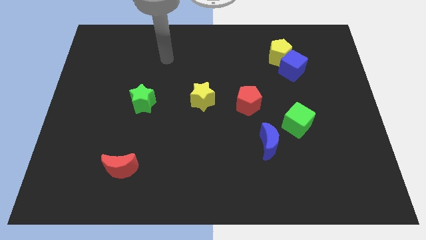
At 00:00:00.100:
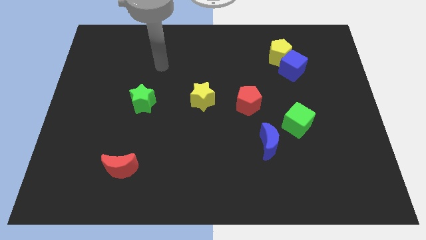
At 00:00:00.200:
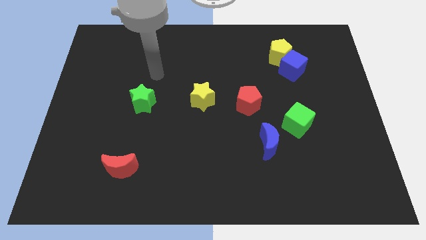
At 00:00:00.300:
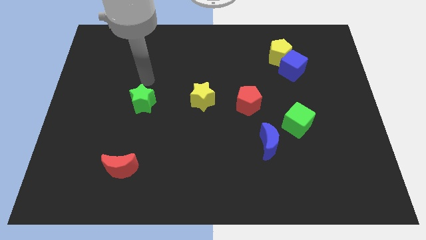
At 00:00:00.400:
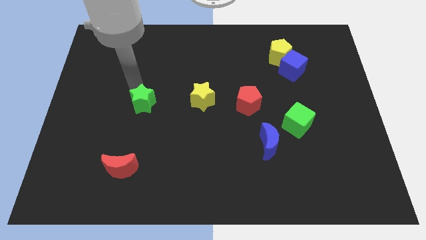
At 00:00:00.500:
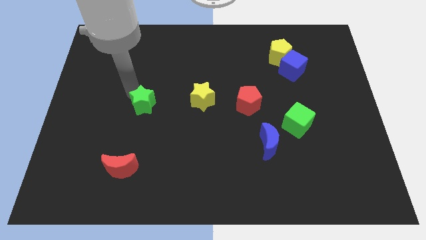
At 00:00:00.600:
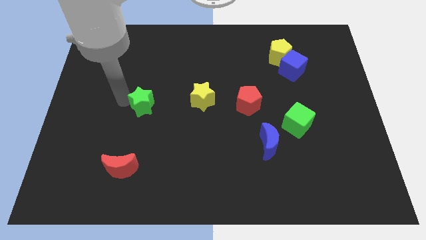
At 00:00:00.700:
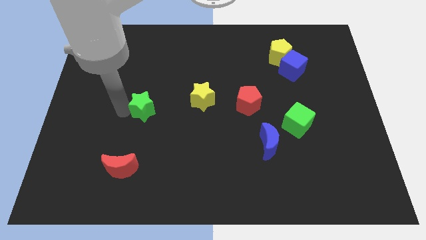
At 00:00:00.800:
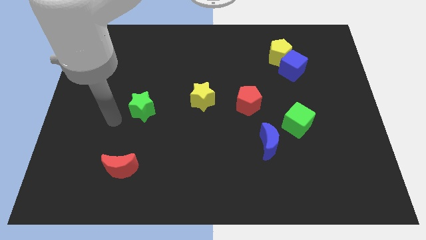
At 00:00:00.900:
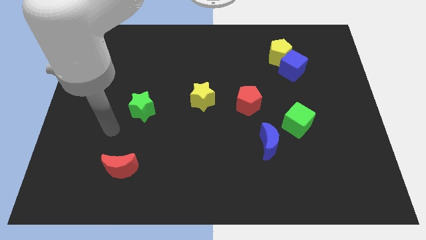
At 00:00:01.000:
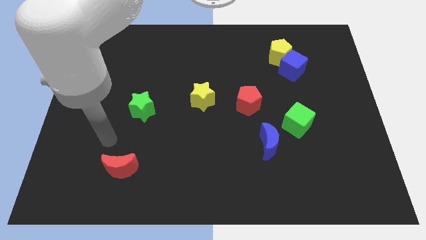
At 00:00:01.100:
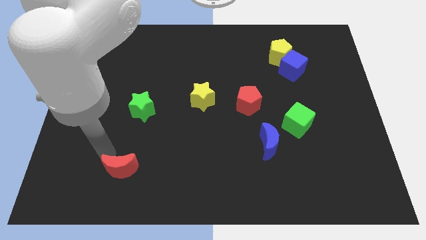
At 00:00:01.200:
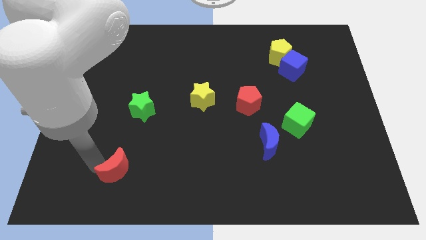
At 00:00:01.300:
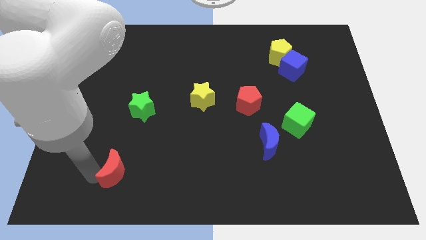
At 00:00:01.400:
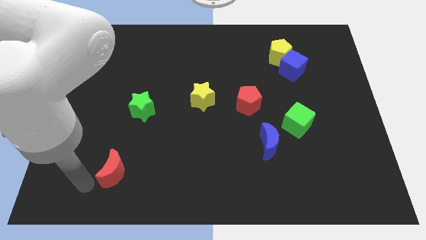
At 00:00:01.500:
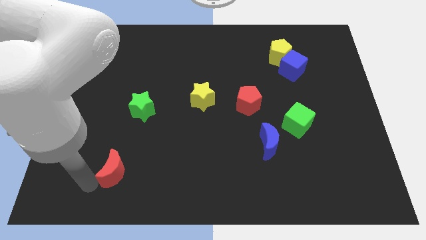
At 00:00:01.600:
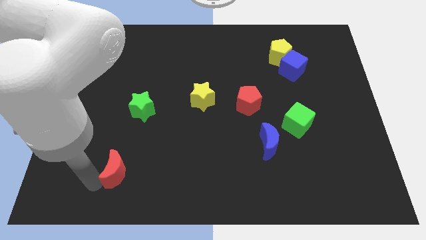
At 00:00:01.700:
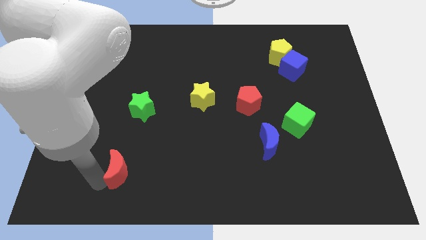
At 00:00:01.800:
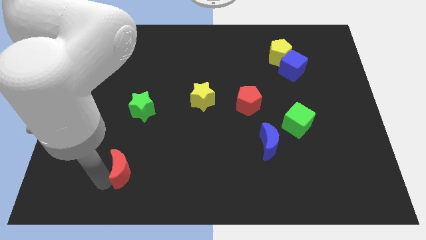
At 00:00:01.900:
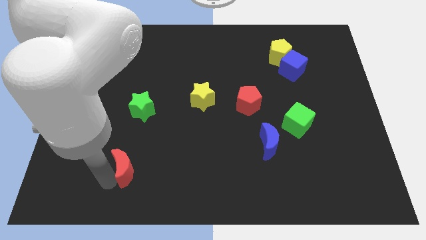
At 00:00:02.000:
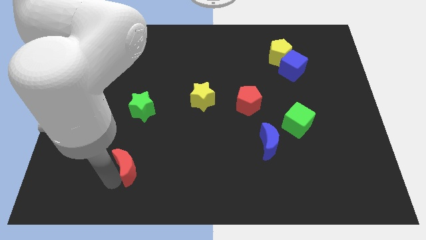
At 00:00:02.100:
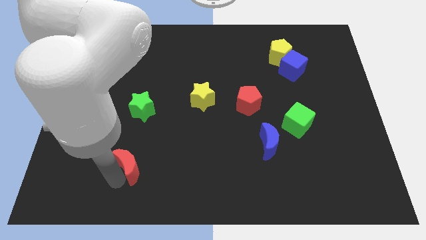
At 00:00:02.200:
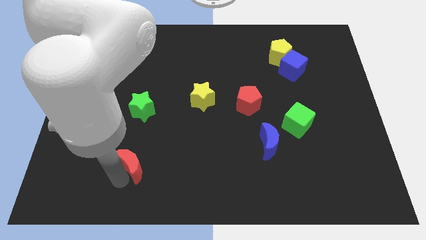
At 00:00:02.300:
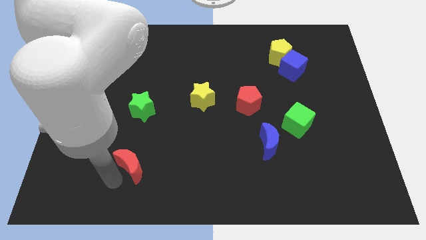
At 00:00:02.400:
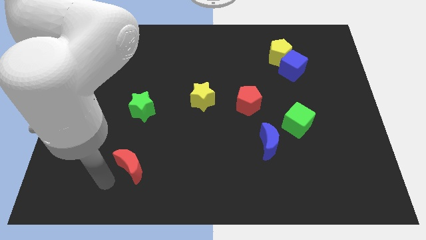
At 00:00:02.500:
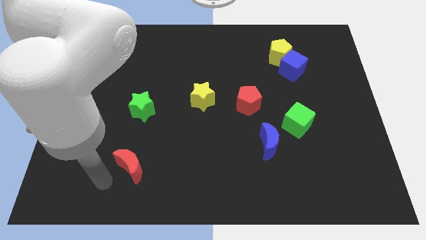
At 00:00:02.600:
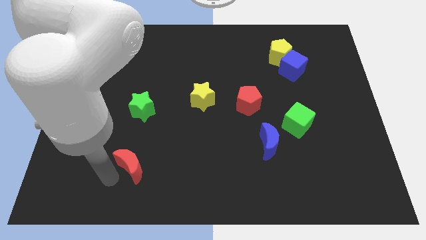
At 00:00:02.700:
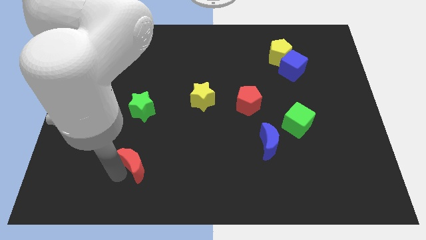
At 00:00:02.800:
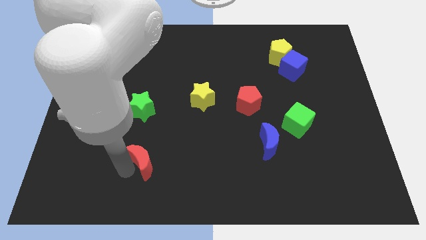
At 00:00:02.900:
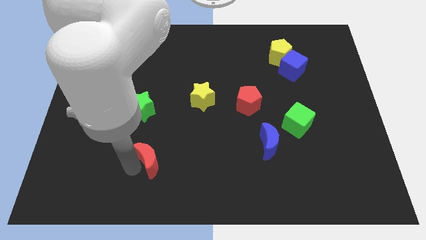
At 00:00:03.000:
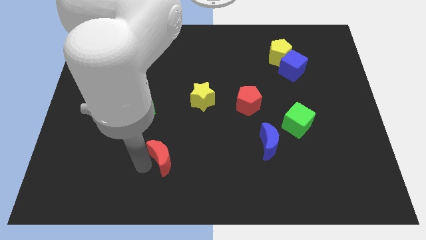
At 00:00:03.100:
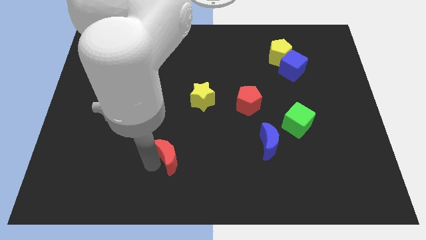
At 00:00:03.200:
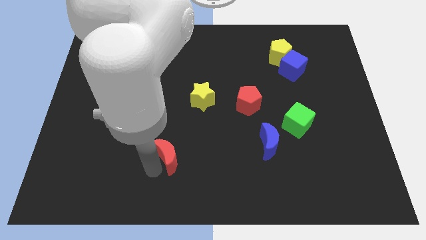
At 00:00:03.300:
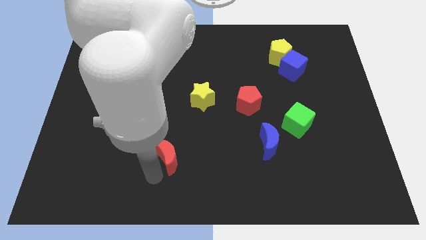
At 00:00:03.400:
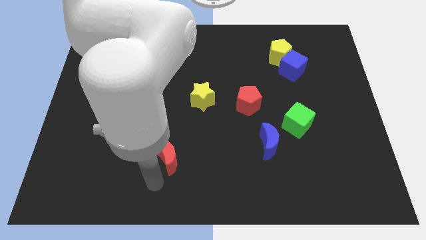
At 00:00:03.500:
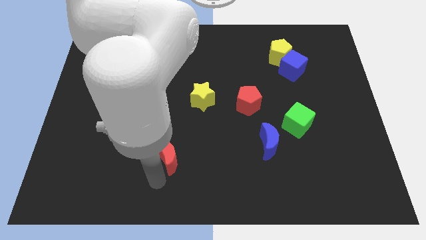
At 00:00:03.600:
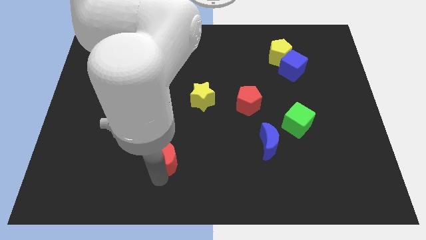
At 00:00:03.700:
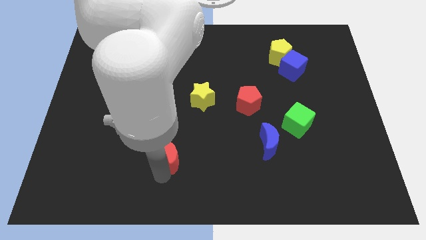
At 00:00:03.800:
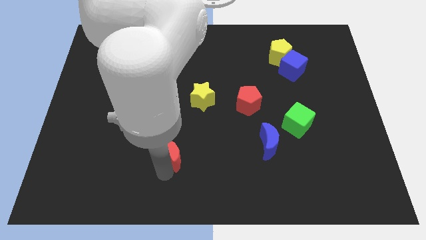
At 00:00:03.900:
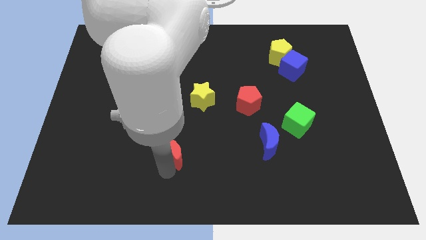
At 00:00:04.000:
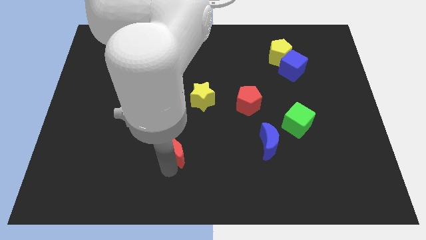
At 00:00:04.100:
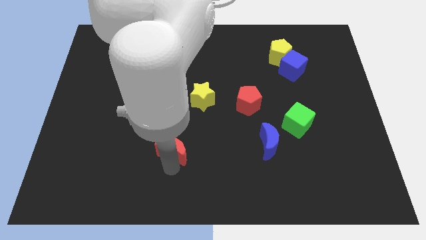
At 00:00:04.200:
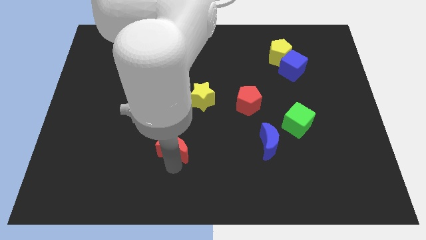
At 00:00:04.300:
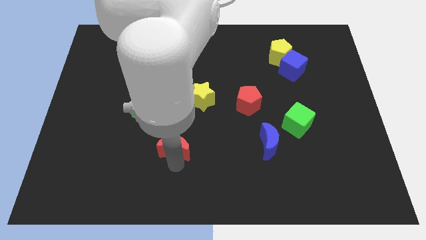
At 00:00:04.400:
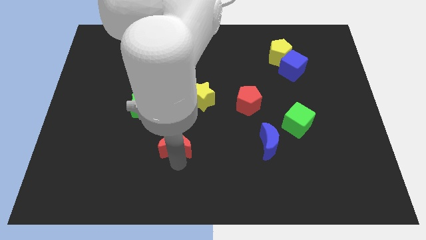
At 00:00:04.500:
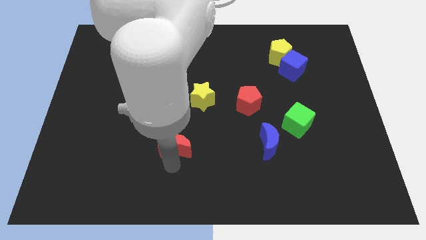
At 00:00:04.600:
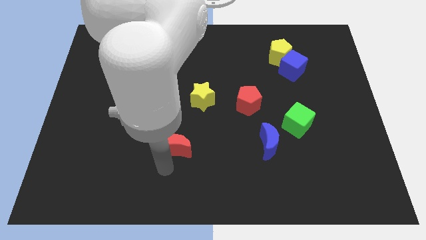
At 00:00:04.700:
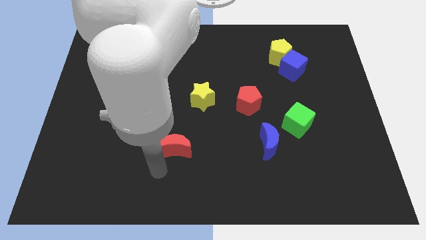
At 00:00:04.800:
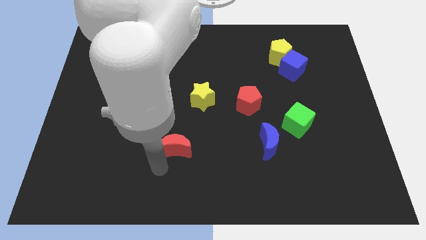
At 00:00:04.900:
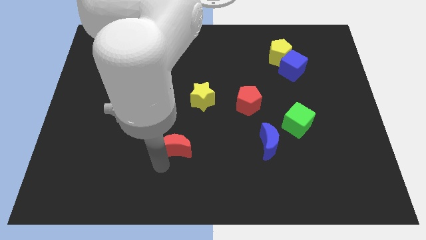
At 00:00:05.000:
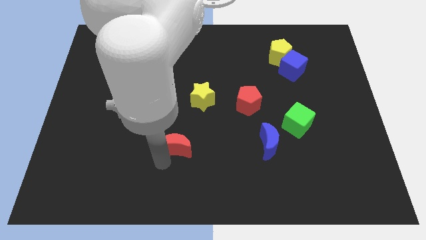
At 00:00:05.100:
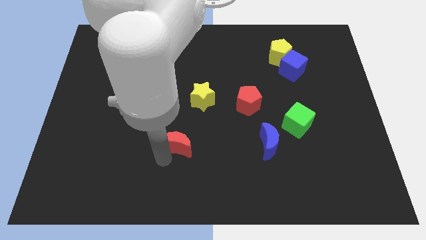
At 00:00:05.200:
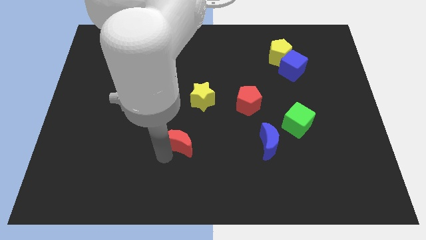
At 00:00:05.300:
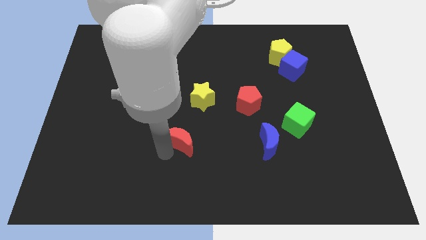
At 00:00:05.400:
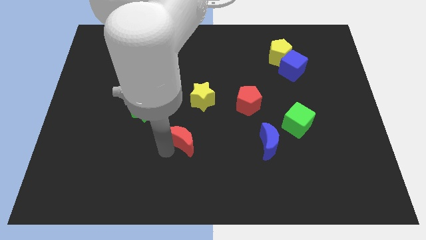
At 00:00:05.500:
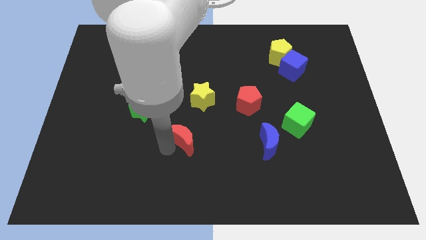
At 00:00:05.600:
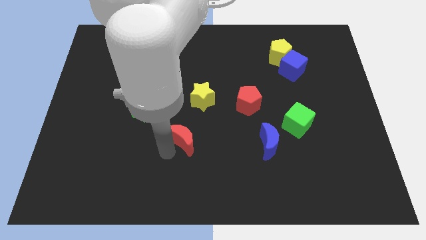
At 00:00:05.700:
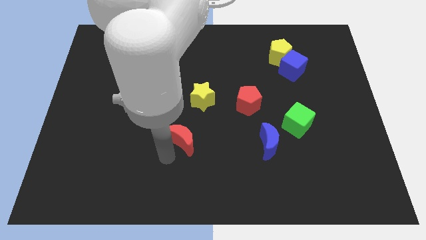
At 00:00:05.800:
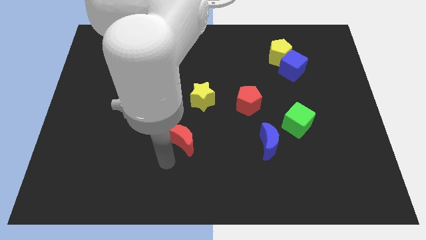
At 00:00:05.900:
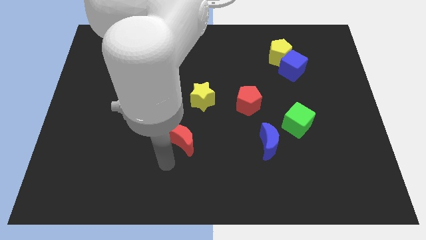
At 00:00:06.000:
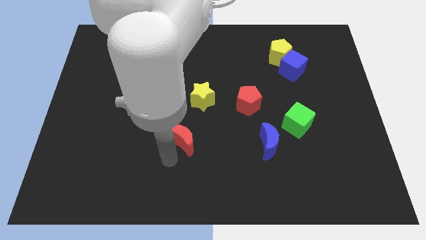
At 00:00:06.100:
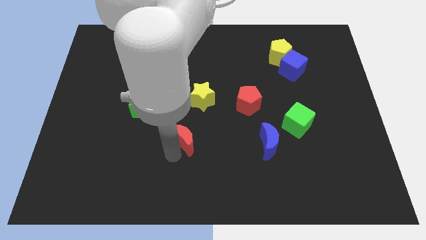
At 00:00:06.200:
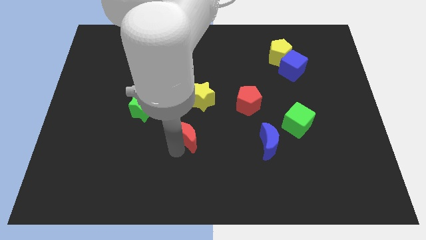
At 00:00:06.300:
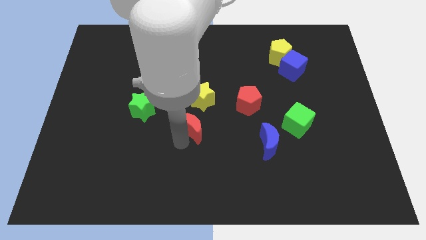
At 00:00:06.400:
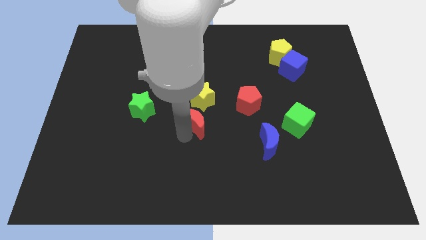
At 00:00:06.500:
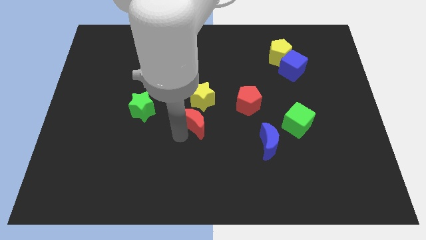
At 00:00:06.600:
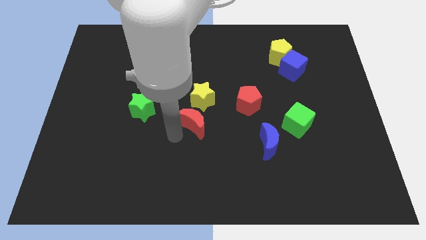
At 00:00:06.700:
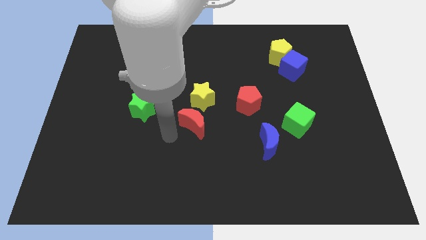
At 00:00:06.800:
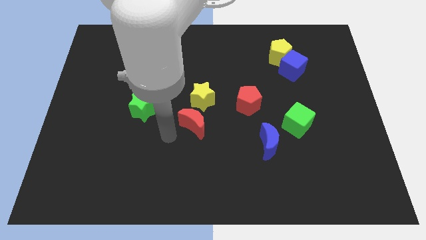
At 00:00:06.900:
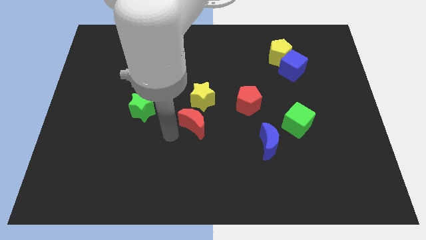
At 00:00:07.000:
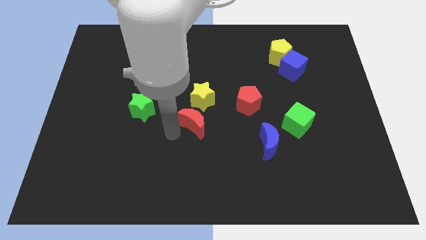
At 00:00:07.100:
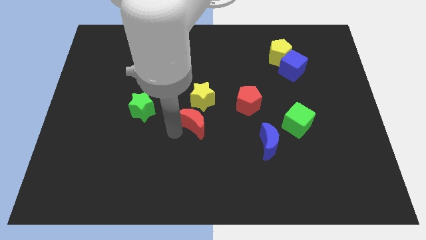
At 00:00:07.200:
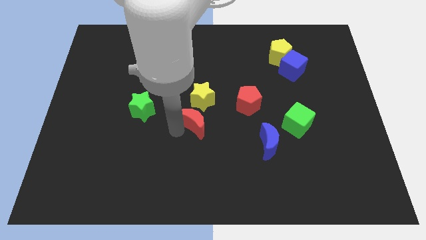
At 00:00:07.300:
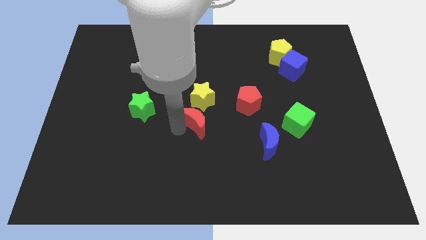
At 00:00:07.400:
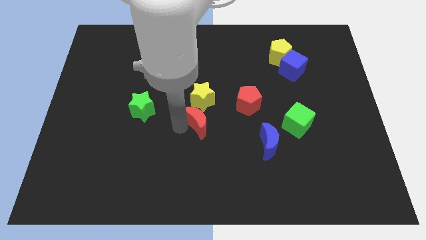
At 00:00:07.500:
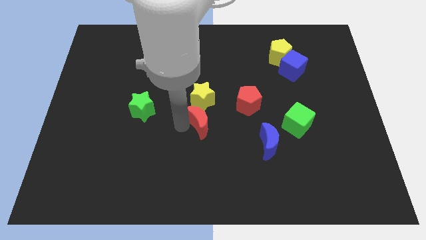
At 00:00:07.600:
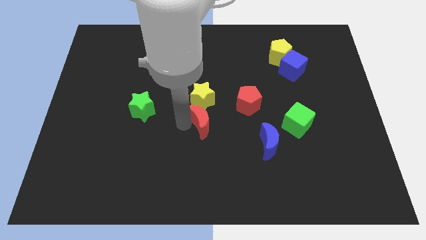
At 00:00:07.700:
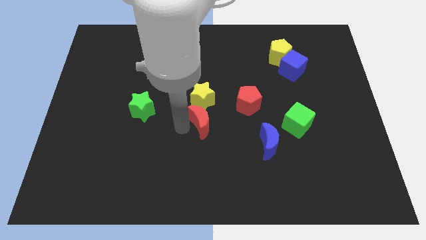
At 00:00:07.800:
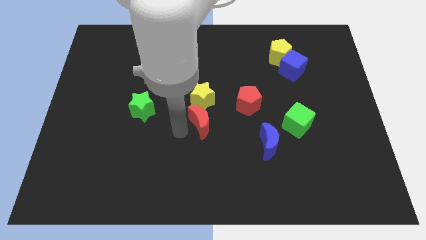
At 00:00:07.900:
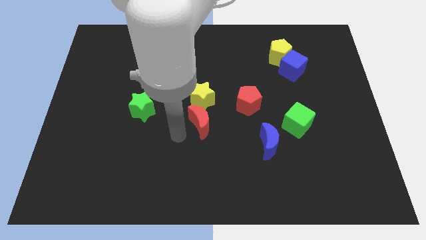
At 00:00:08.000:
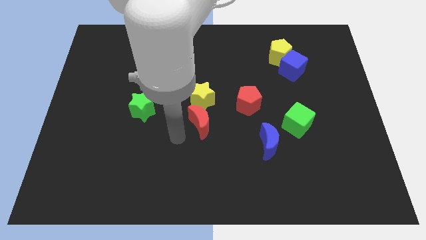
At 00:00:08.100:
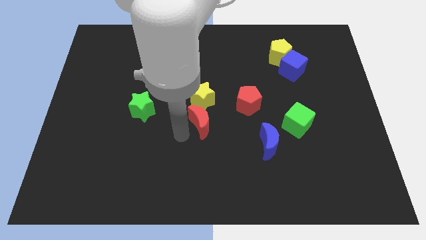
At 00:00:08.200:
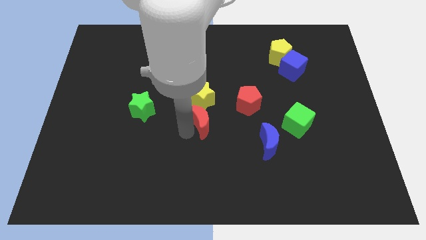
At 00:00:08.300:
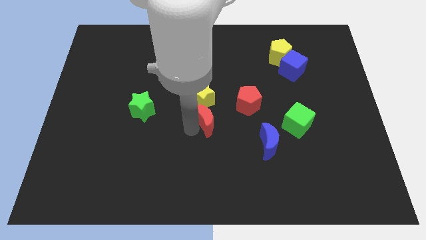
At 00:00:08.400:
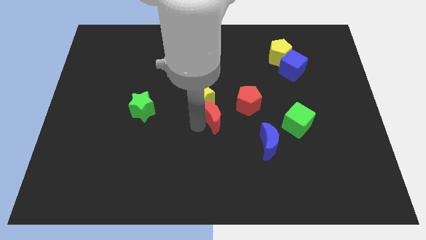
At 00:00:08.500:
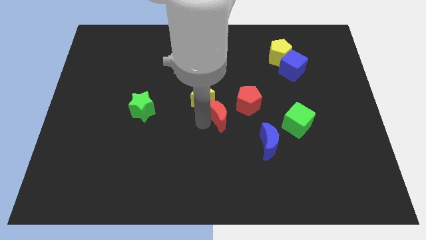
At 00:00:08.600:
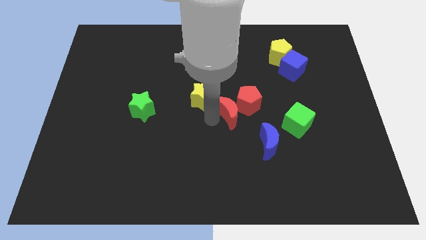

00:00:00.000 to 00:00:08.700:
slide the red moon next to the red pentagon
